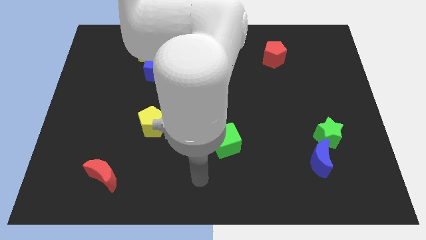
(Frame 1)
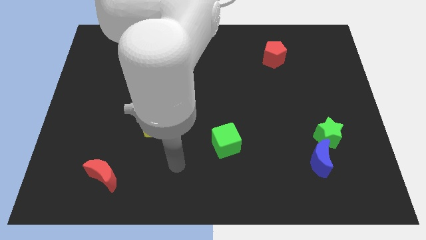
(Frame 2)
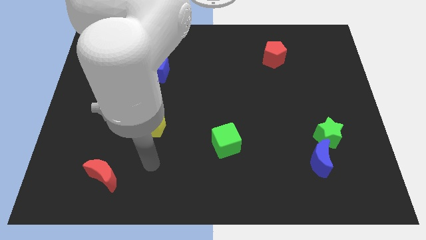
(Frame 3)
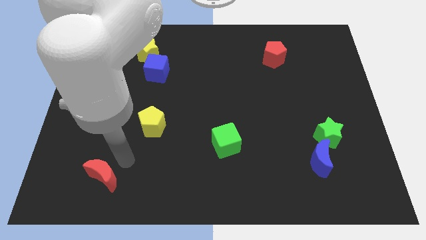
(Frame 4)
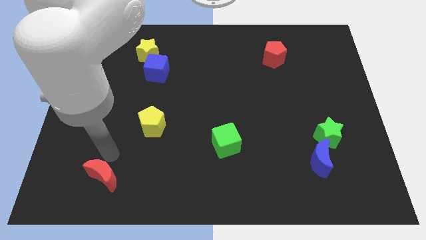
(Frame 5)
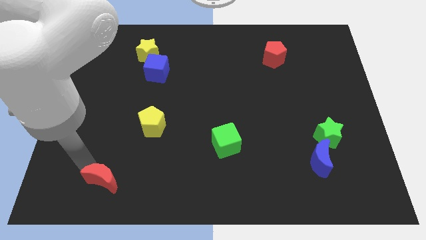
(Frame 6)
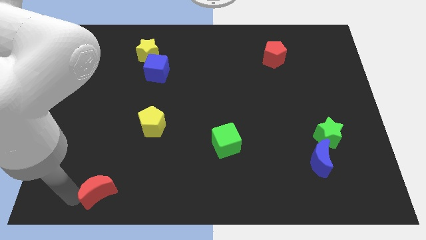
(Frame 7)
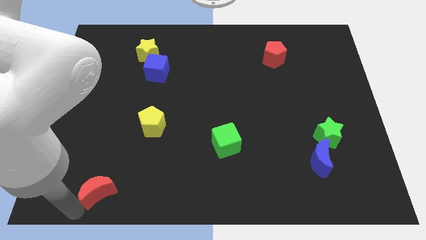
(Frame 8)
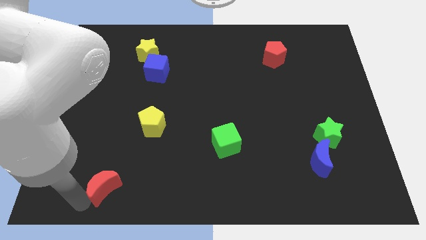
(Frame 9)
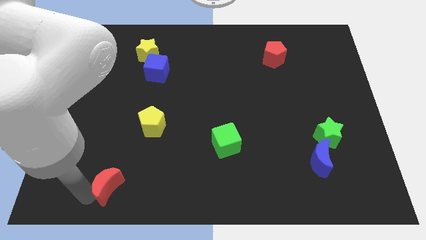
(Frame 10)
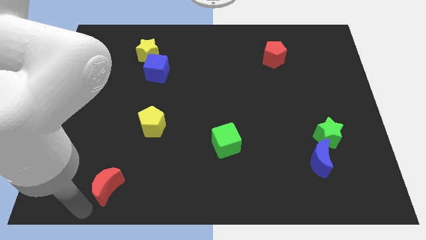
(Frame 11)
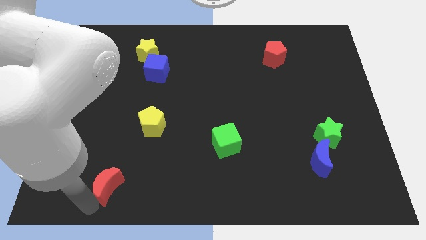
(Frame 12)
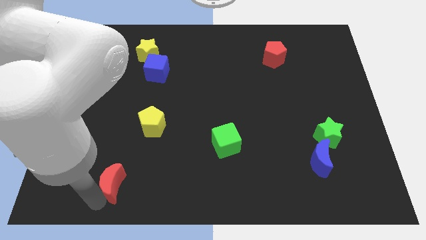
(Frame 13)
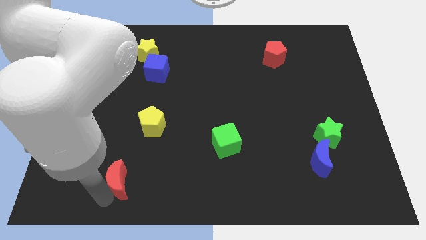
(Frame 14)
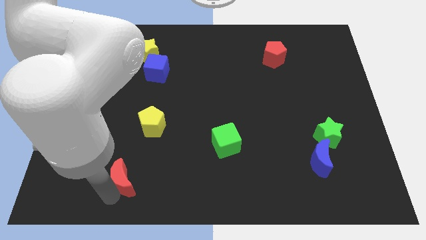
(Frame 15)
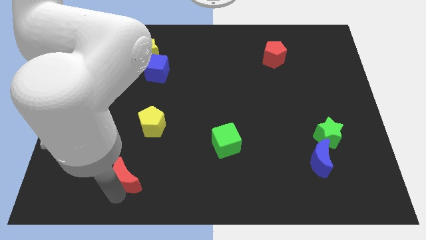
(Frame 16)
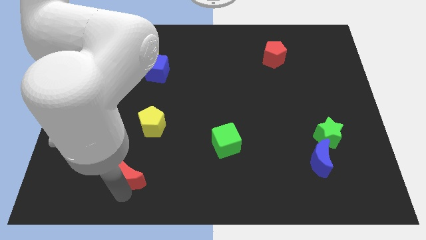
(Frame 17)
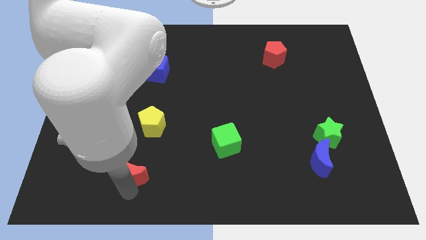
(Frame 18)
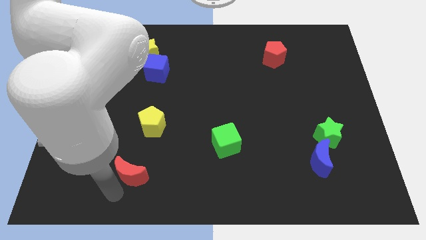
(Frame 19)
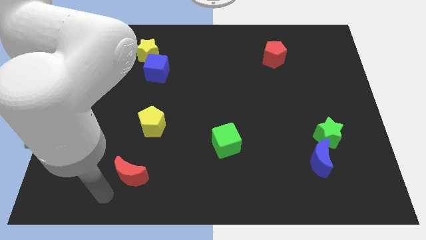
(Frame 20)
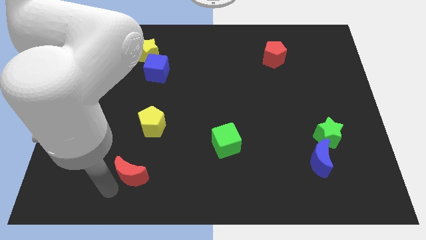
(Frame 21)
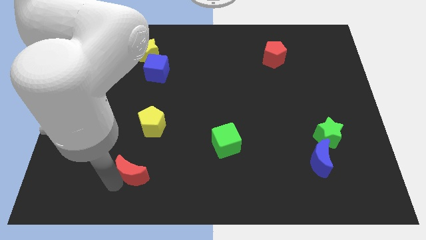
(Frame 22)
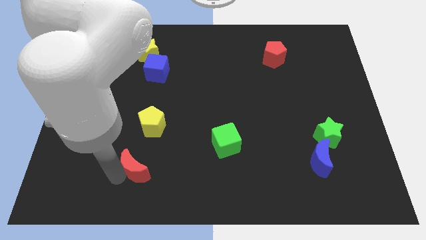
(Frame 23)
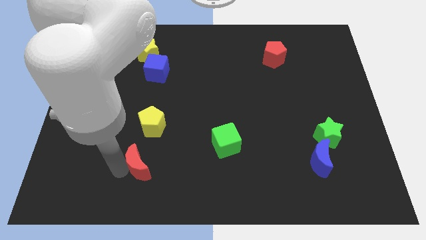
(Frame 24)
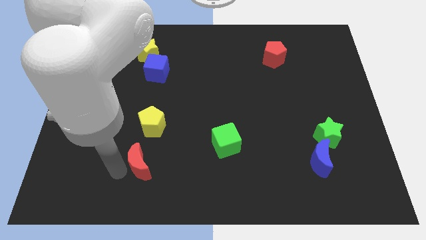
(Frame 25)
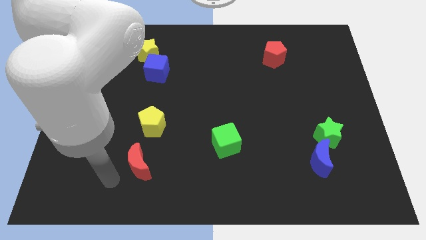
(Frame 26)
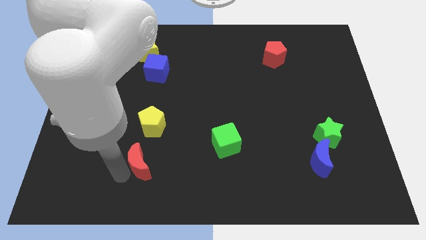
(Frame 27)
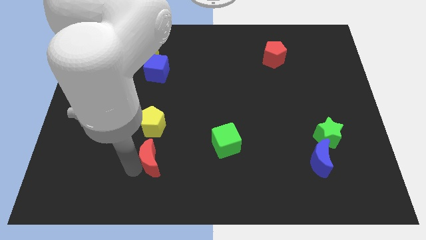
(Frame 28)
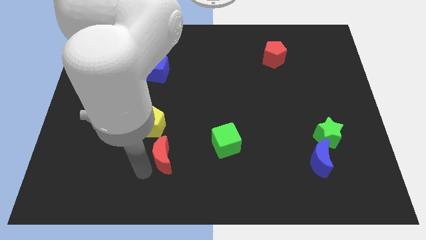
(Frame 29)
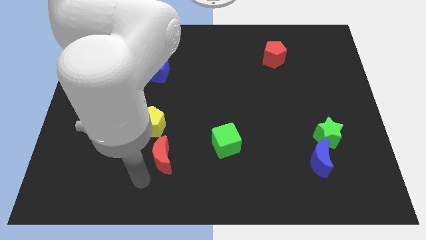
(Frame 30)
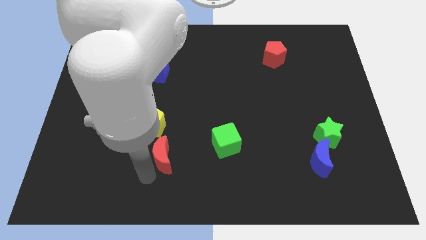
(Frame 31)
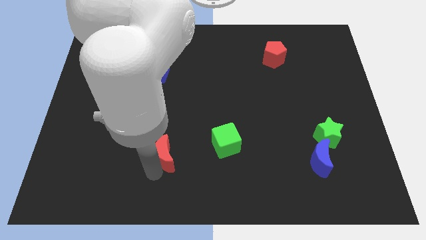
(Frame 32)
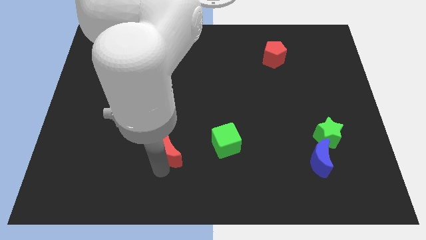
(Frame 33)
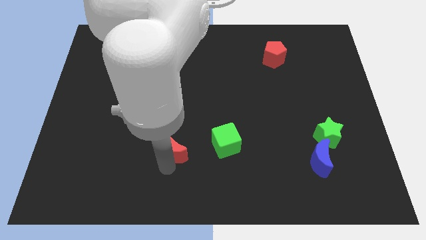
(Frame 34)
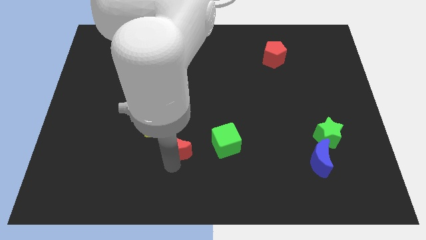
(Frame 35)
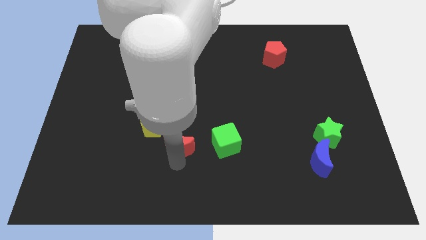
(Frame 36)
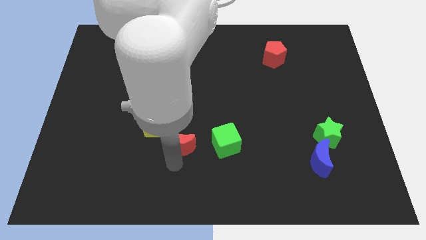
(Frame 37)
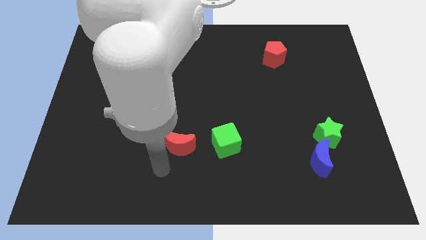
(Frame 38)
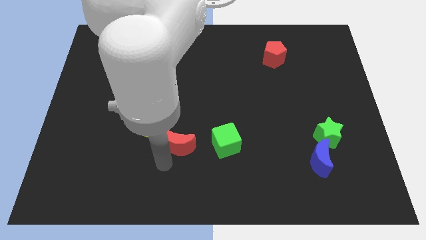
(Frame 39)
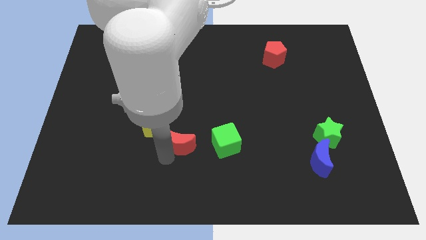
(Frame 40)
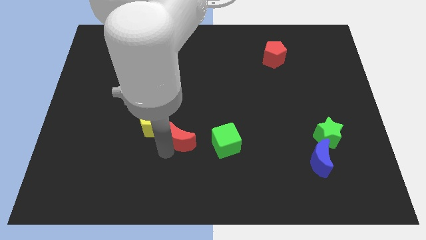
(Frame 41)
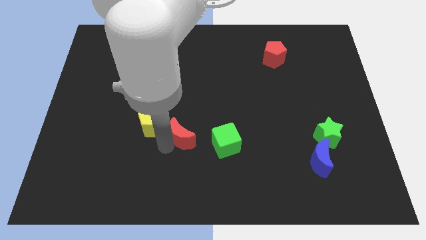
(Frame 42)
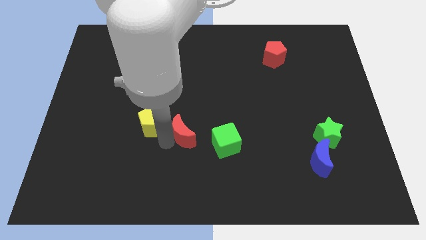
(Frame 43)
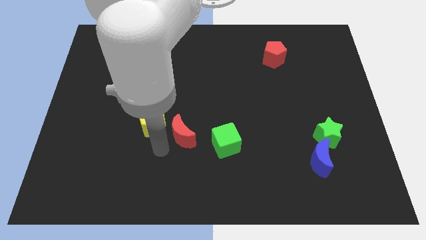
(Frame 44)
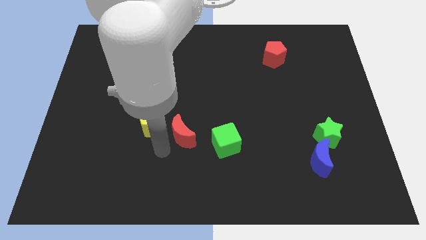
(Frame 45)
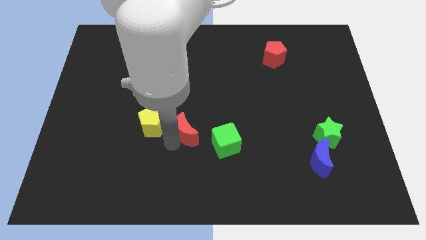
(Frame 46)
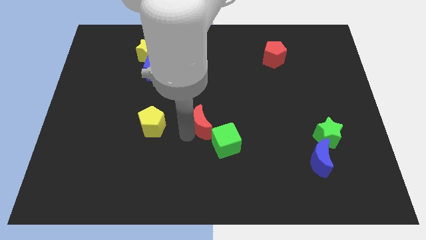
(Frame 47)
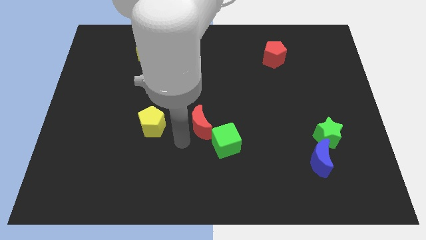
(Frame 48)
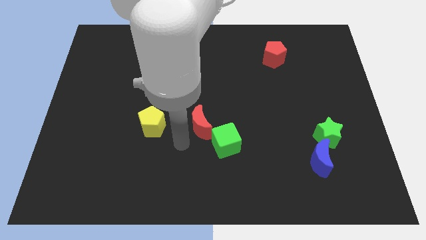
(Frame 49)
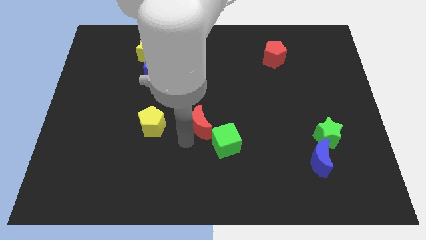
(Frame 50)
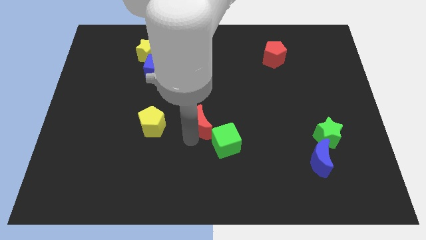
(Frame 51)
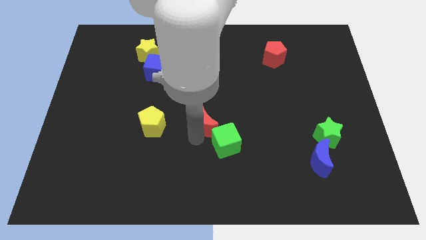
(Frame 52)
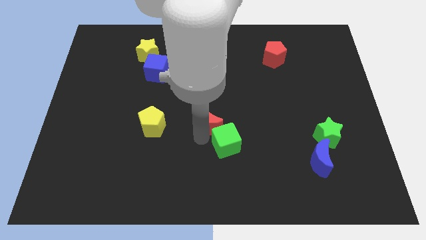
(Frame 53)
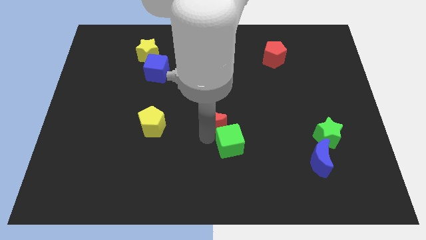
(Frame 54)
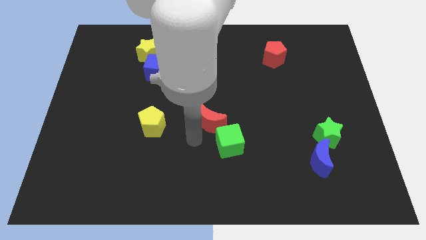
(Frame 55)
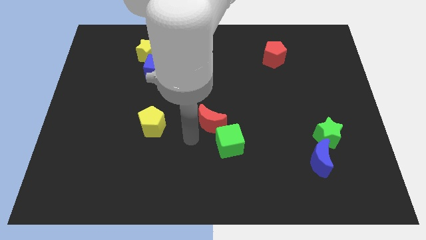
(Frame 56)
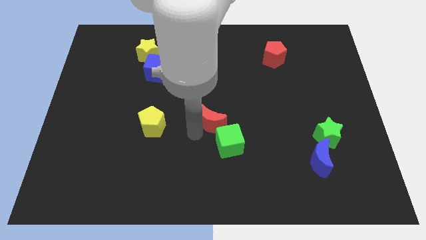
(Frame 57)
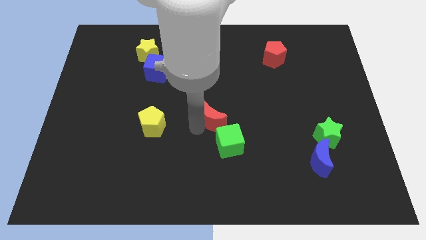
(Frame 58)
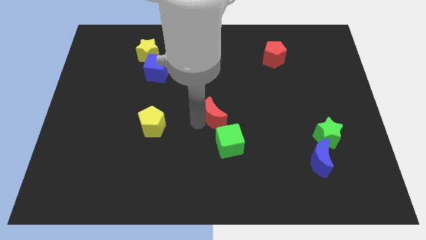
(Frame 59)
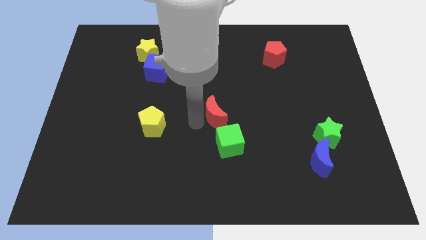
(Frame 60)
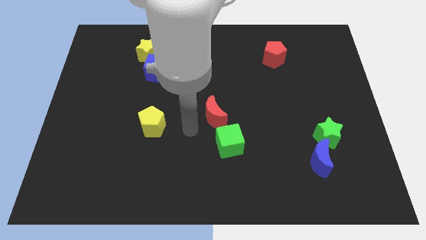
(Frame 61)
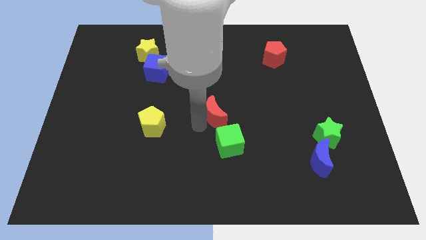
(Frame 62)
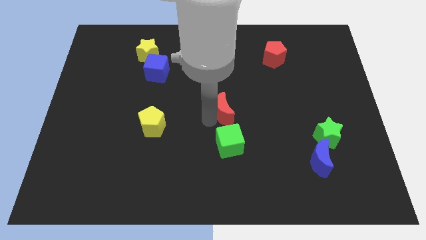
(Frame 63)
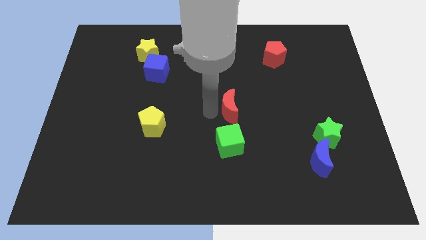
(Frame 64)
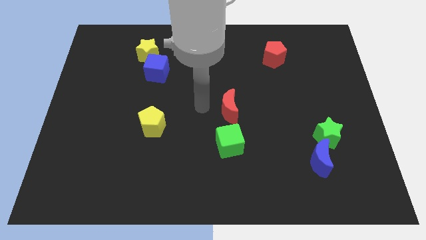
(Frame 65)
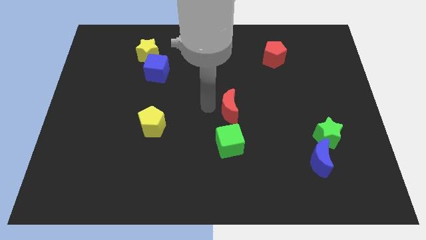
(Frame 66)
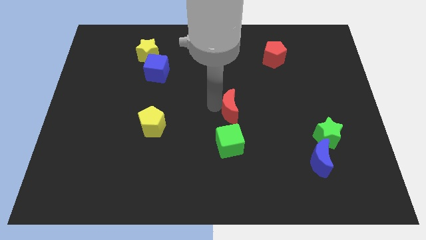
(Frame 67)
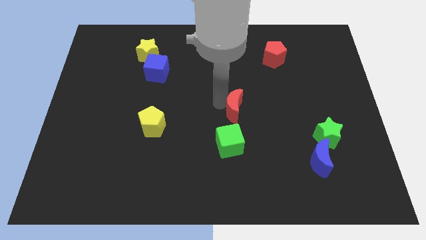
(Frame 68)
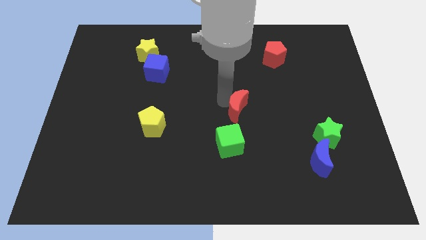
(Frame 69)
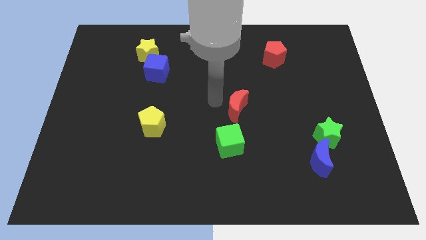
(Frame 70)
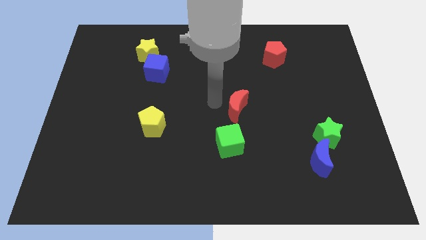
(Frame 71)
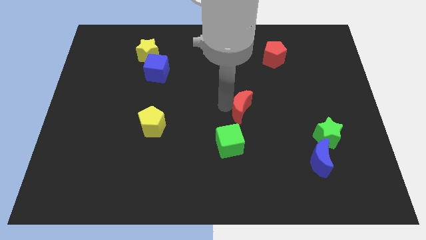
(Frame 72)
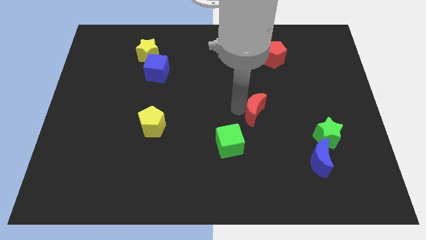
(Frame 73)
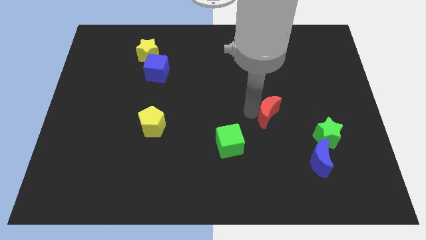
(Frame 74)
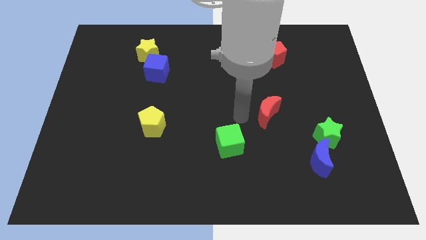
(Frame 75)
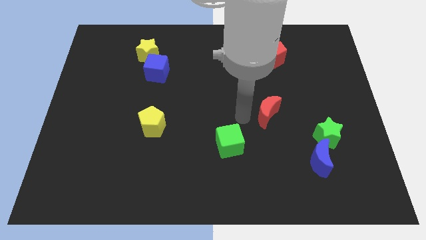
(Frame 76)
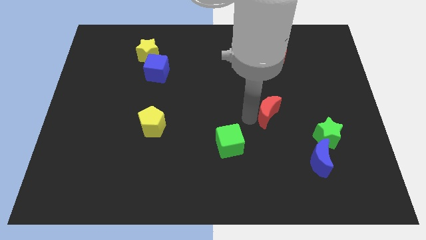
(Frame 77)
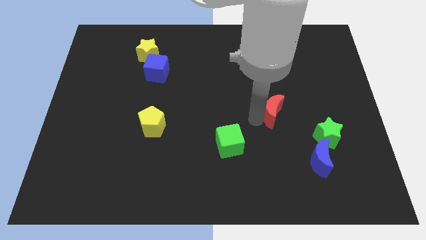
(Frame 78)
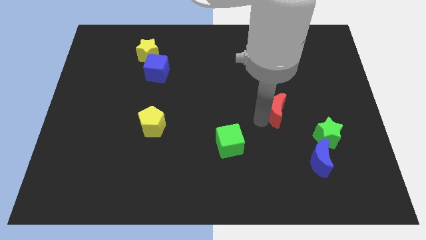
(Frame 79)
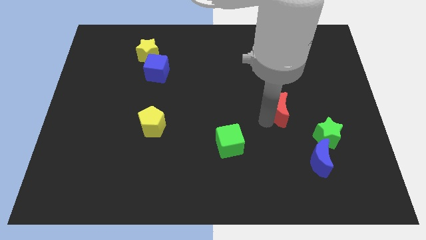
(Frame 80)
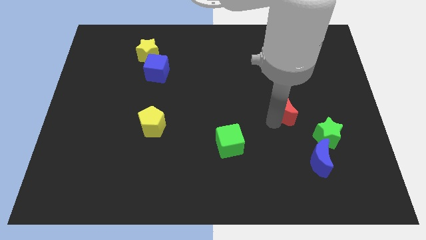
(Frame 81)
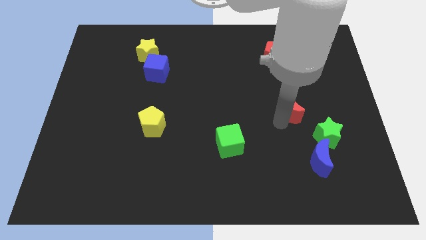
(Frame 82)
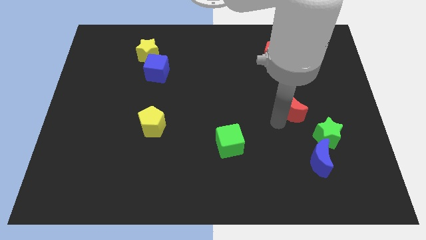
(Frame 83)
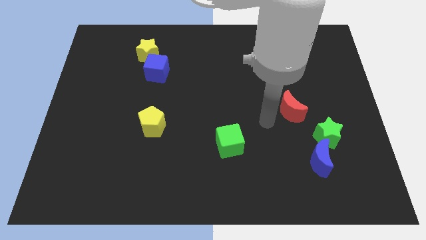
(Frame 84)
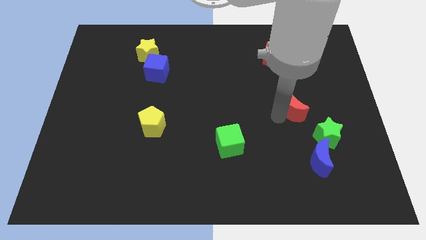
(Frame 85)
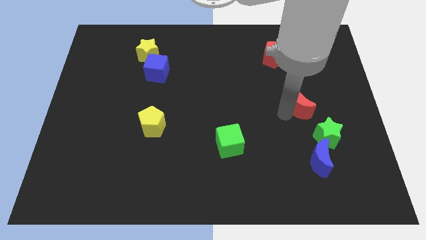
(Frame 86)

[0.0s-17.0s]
push the red moon to the top of the green star
